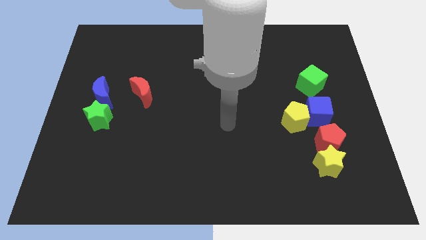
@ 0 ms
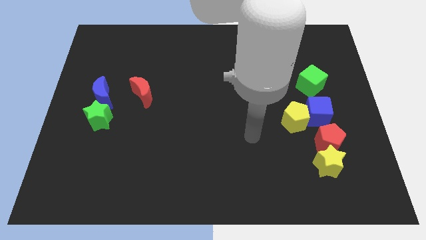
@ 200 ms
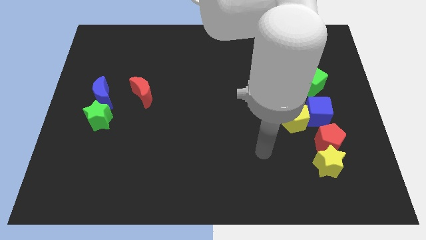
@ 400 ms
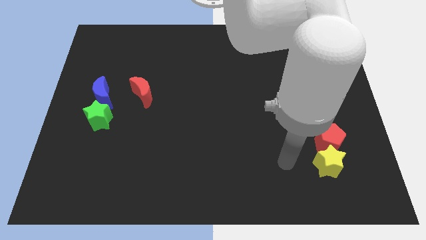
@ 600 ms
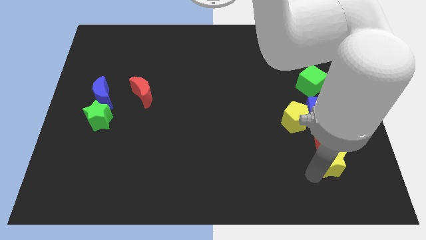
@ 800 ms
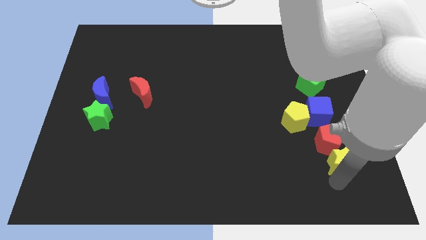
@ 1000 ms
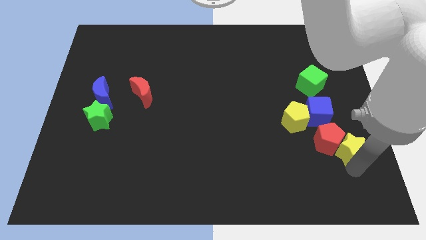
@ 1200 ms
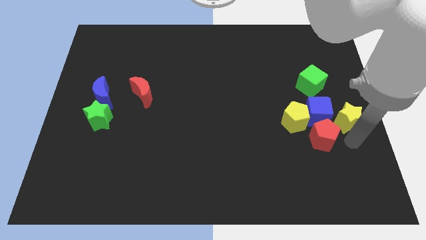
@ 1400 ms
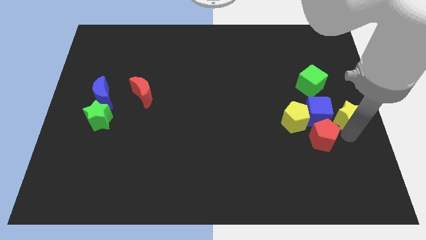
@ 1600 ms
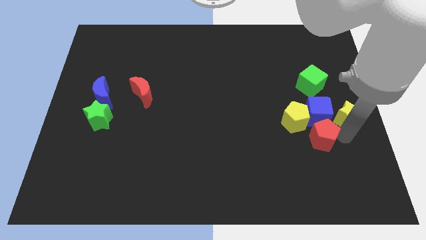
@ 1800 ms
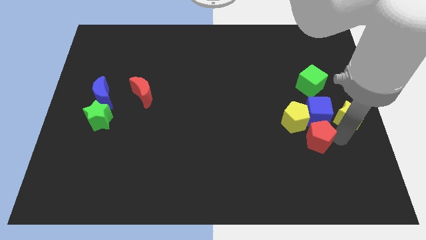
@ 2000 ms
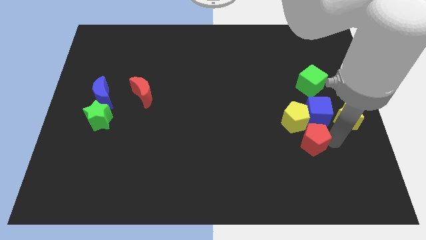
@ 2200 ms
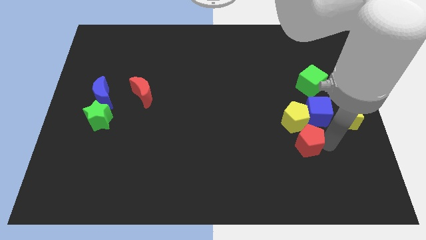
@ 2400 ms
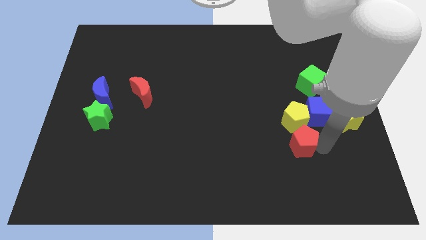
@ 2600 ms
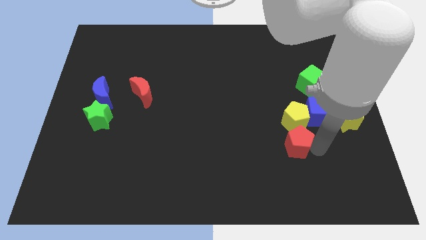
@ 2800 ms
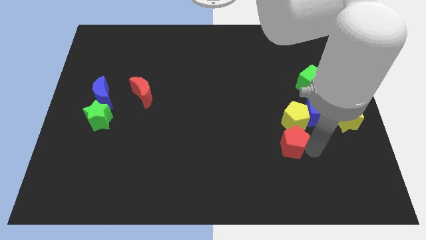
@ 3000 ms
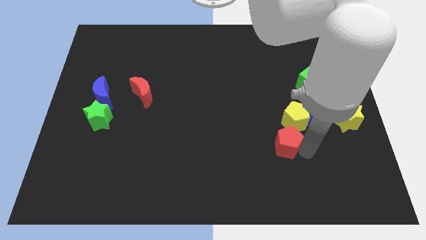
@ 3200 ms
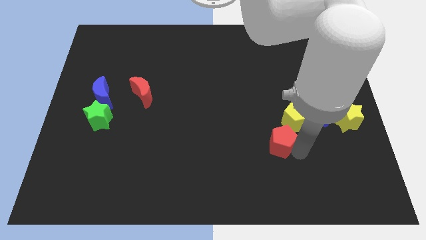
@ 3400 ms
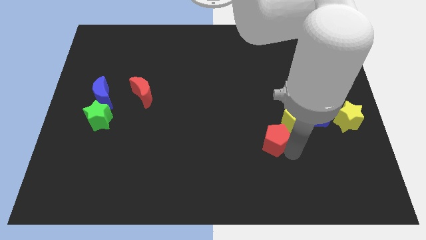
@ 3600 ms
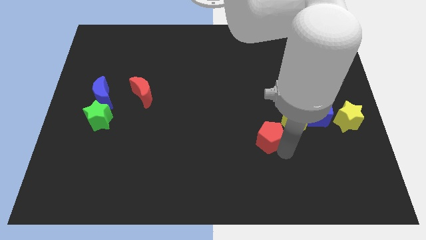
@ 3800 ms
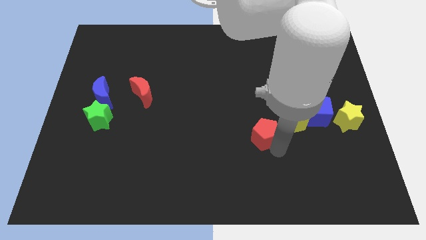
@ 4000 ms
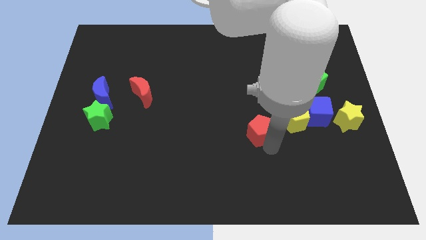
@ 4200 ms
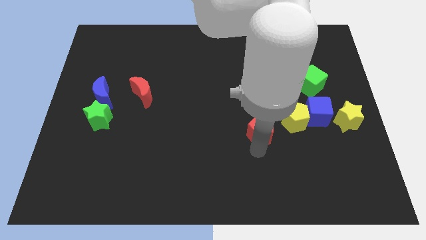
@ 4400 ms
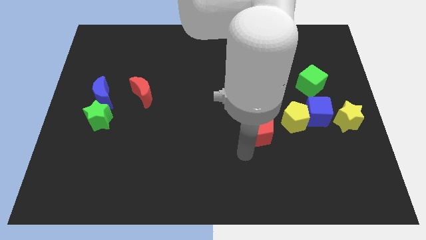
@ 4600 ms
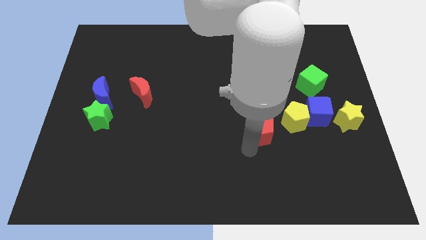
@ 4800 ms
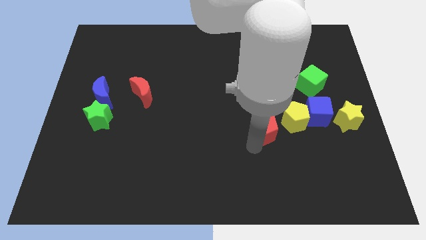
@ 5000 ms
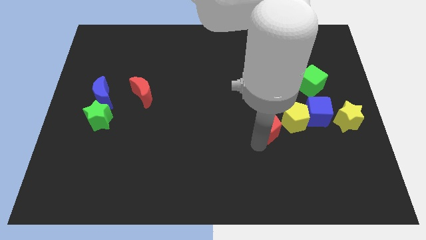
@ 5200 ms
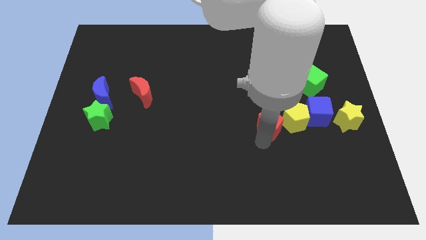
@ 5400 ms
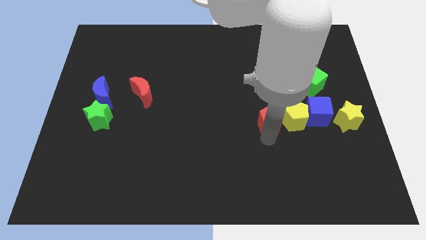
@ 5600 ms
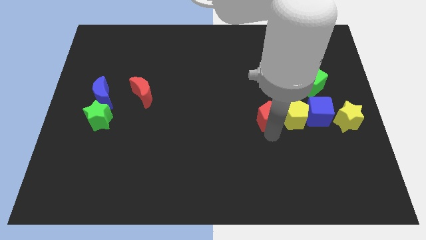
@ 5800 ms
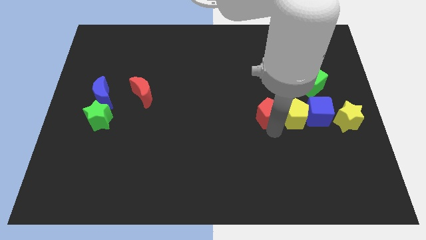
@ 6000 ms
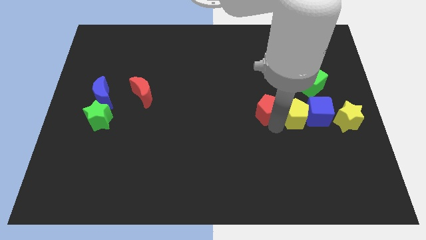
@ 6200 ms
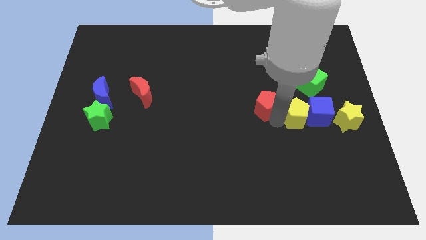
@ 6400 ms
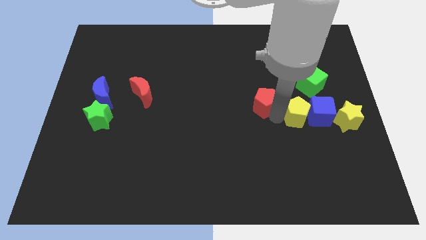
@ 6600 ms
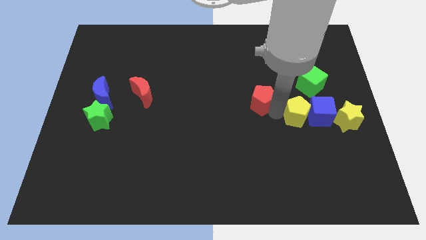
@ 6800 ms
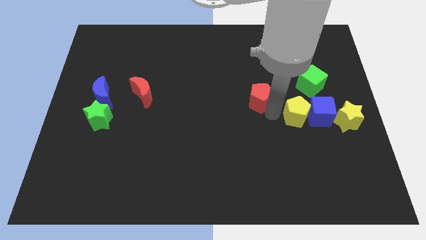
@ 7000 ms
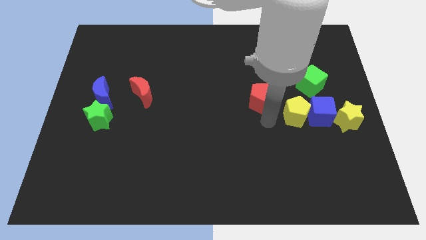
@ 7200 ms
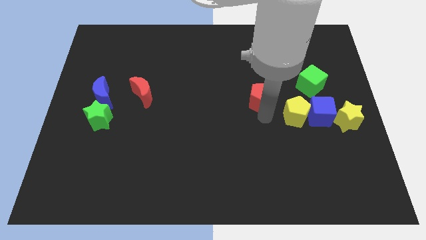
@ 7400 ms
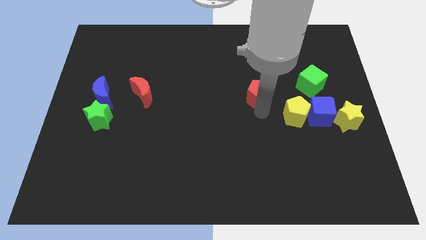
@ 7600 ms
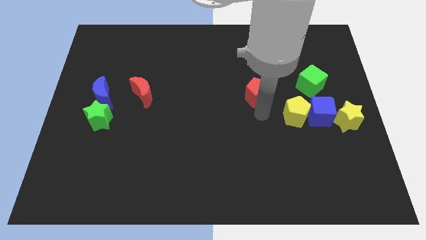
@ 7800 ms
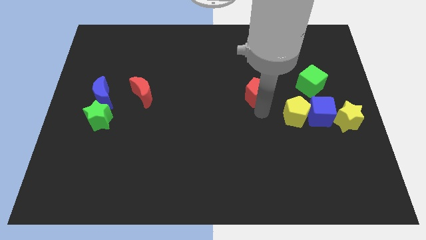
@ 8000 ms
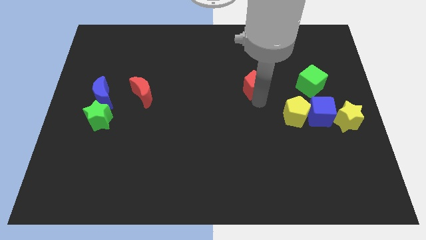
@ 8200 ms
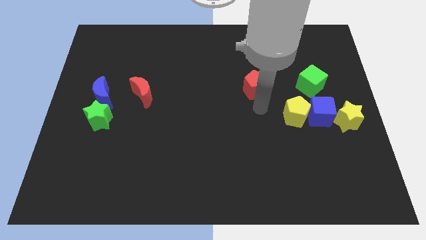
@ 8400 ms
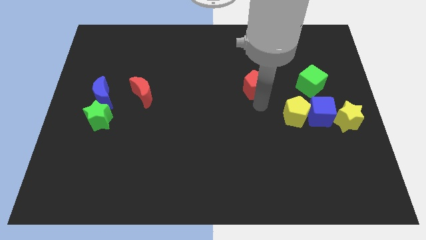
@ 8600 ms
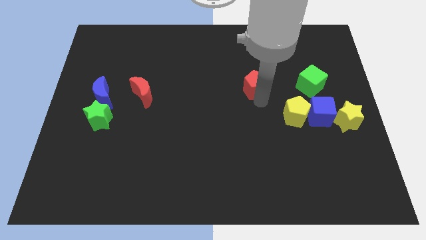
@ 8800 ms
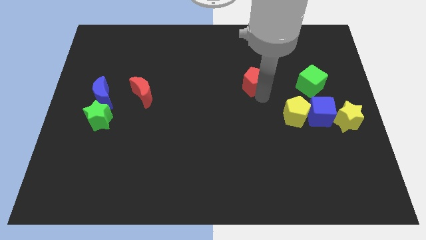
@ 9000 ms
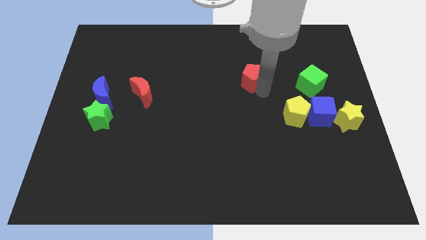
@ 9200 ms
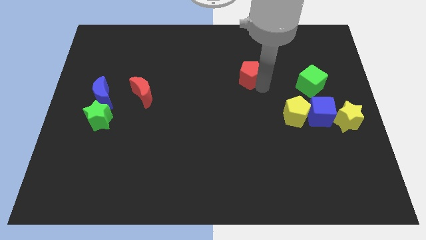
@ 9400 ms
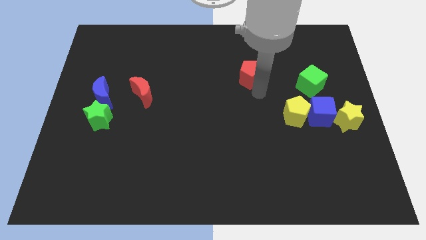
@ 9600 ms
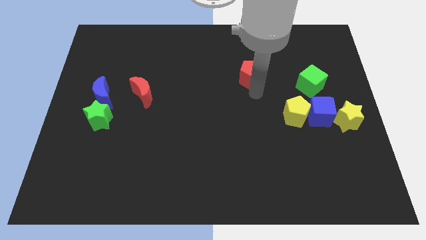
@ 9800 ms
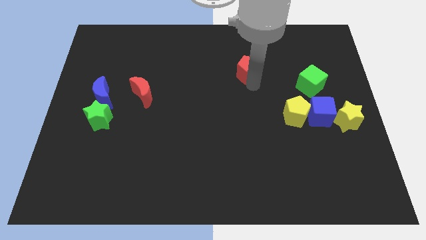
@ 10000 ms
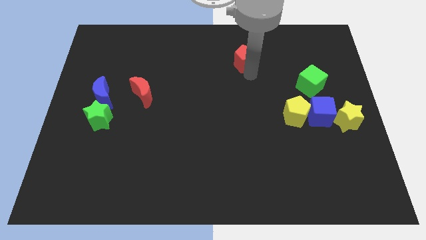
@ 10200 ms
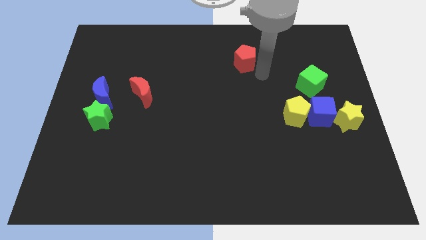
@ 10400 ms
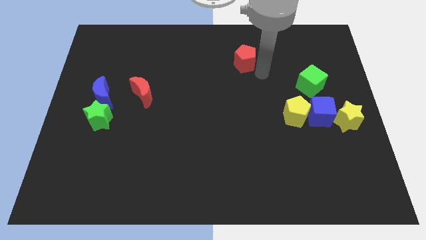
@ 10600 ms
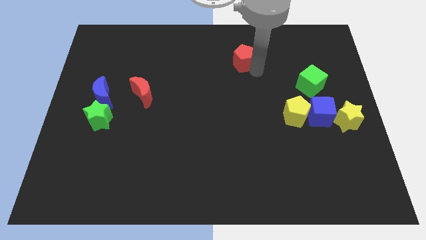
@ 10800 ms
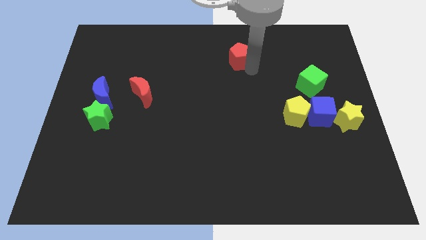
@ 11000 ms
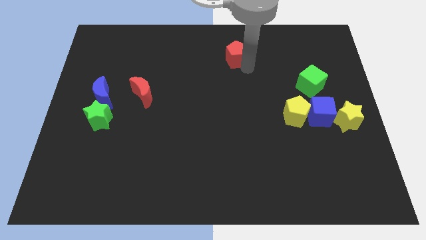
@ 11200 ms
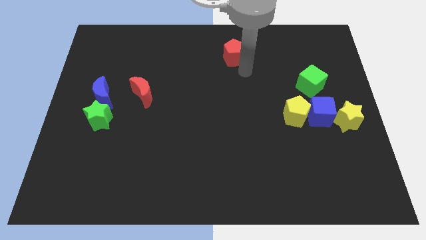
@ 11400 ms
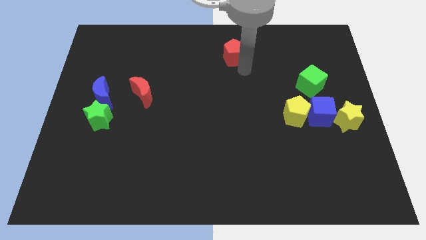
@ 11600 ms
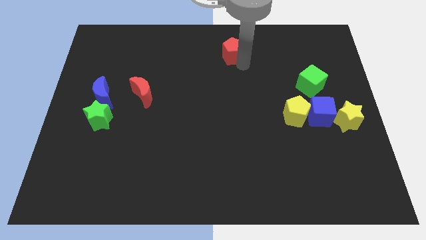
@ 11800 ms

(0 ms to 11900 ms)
push the red pentagon to the towards your base

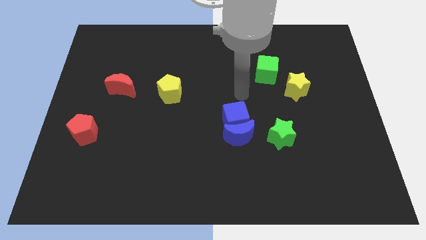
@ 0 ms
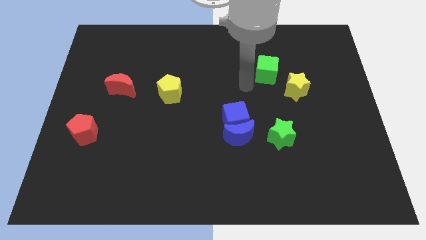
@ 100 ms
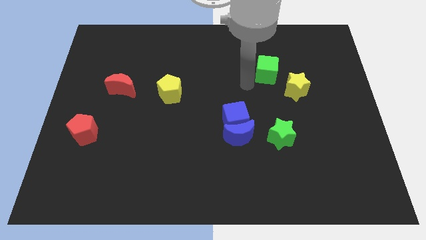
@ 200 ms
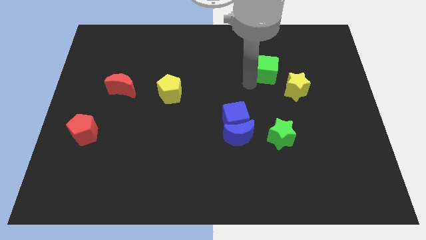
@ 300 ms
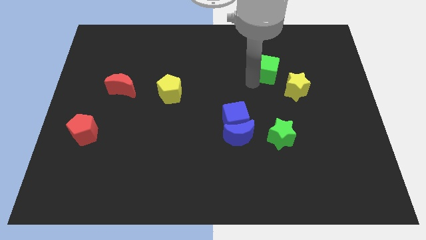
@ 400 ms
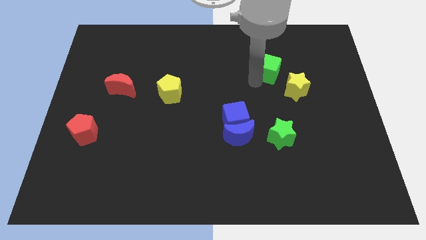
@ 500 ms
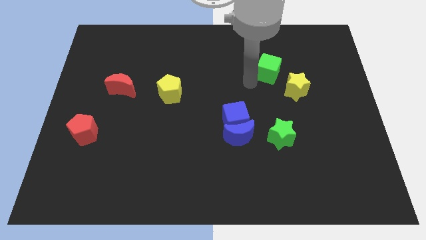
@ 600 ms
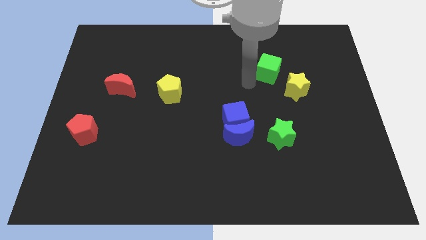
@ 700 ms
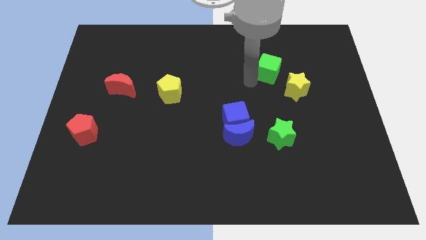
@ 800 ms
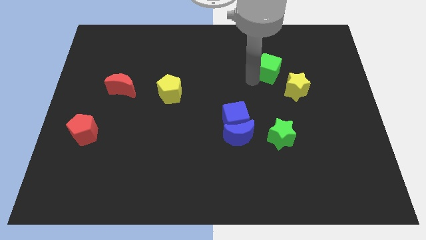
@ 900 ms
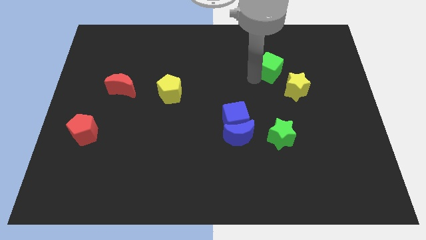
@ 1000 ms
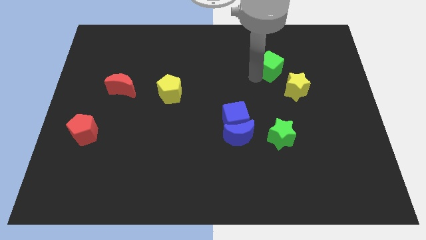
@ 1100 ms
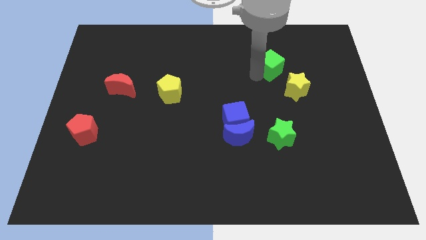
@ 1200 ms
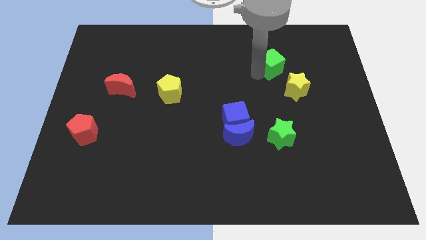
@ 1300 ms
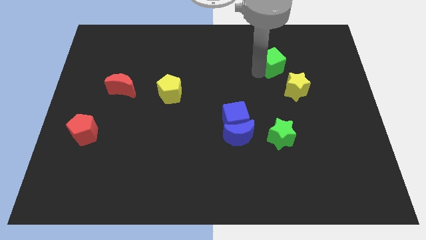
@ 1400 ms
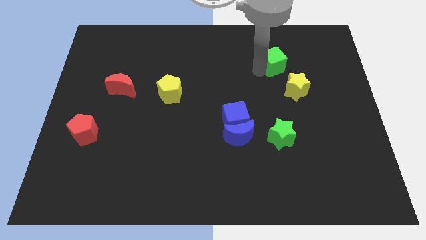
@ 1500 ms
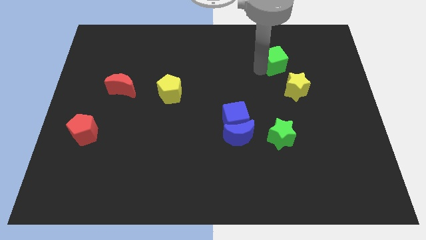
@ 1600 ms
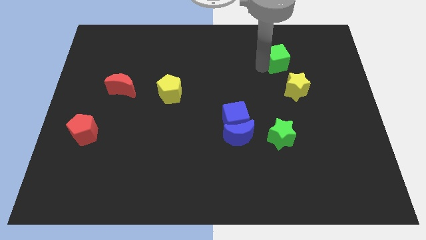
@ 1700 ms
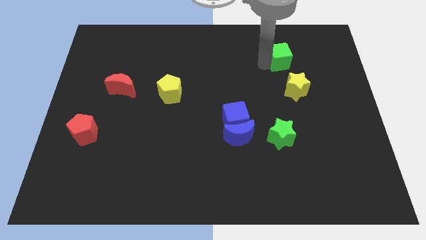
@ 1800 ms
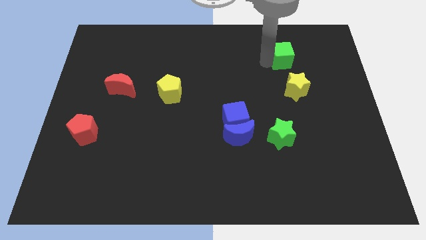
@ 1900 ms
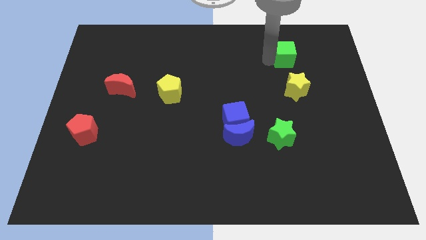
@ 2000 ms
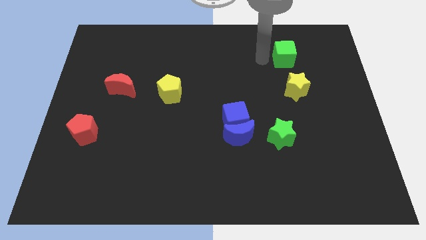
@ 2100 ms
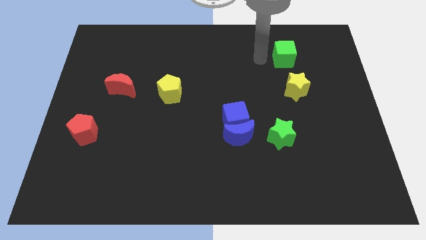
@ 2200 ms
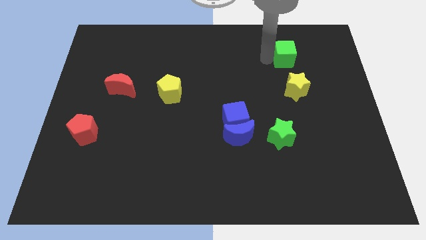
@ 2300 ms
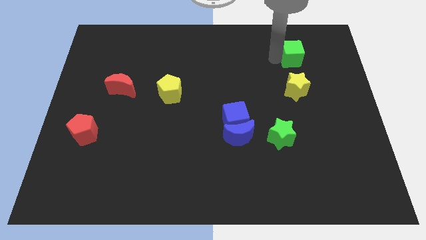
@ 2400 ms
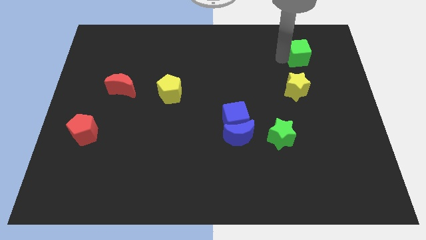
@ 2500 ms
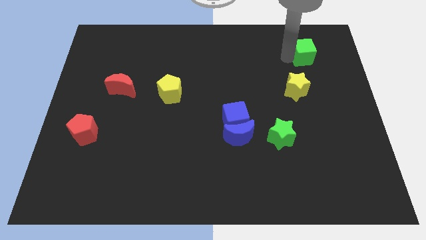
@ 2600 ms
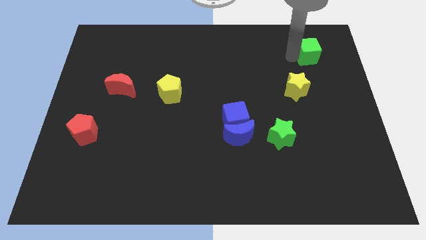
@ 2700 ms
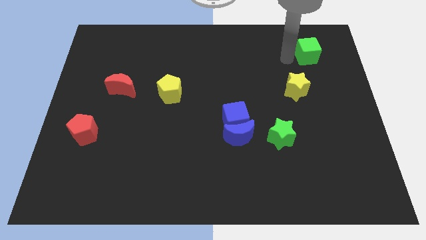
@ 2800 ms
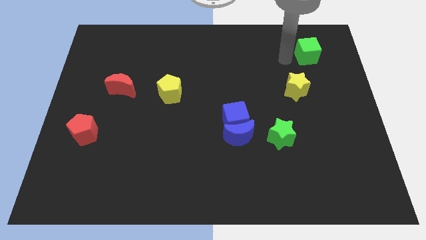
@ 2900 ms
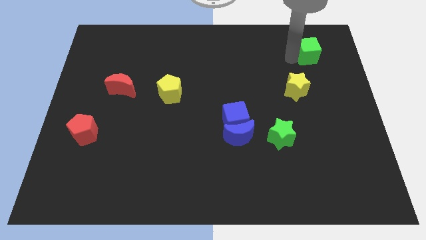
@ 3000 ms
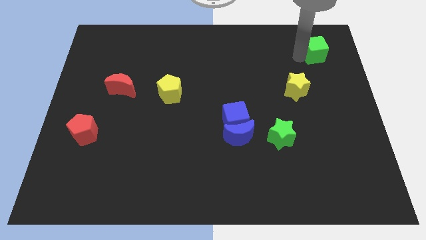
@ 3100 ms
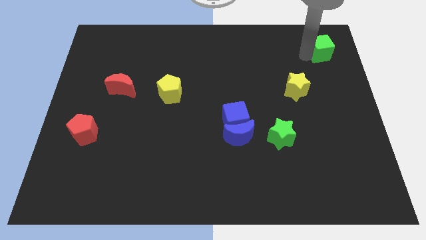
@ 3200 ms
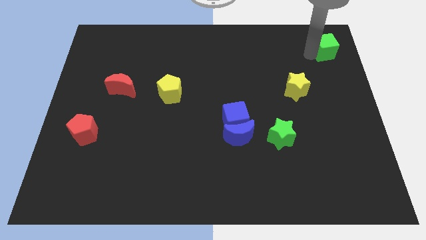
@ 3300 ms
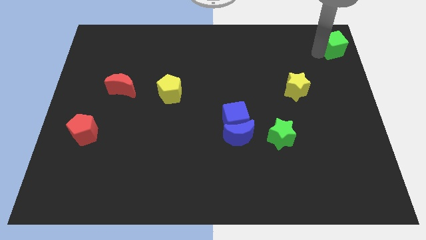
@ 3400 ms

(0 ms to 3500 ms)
put the green cube to the top right
